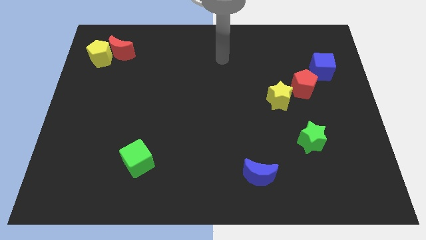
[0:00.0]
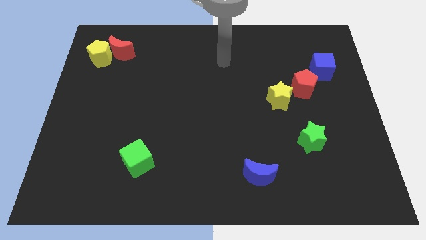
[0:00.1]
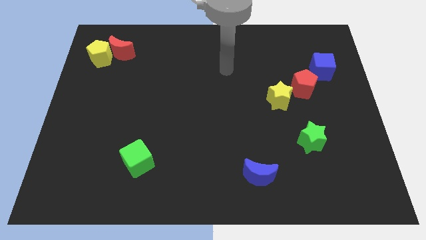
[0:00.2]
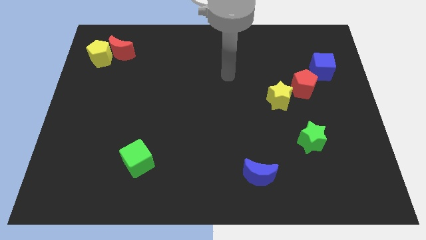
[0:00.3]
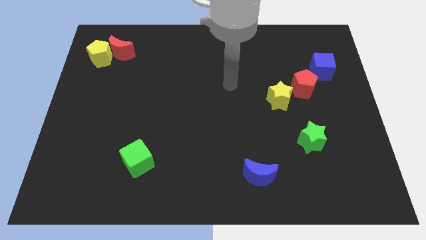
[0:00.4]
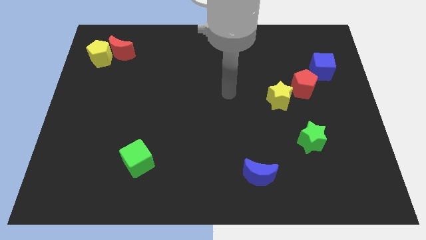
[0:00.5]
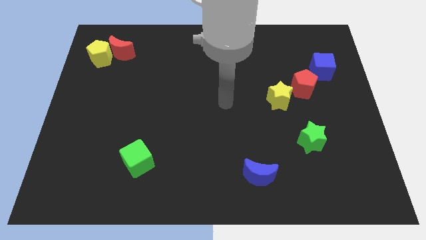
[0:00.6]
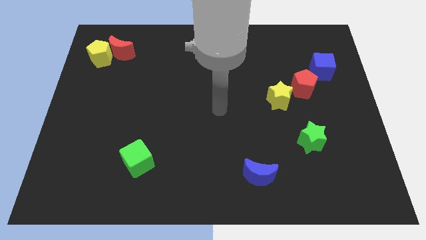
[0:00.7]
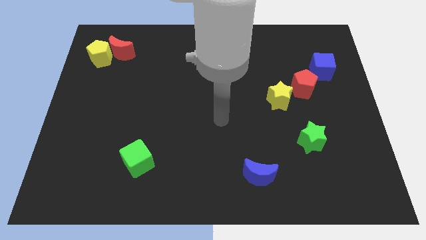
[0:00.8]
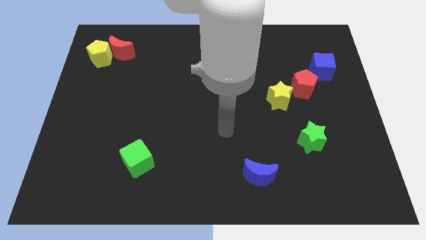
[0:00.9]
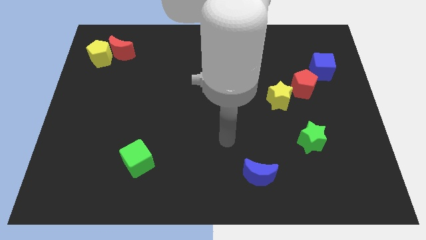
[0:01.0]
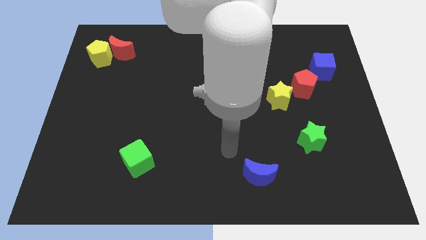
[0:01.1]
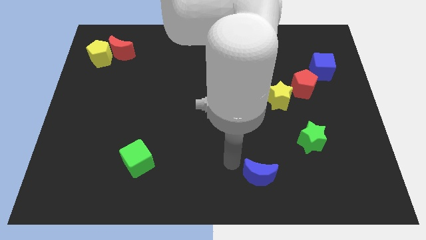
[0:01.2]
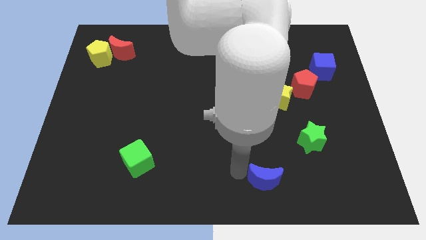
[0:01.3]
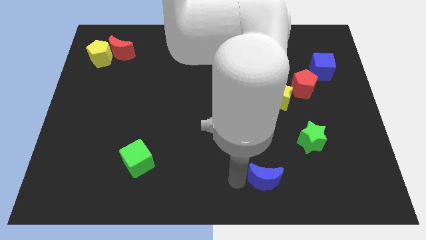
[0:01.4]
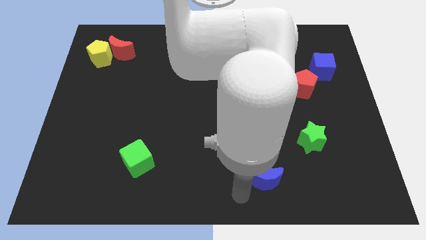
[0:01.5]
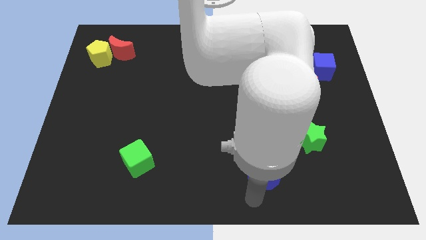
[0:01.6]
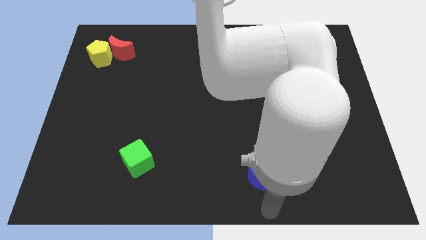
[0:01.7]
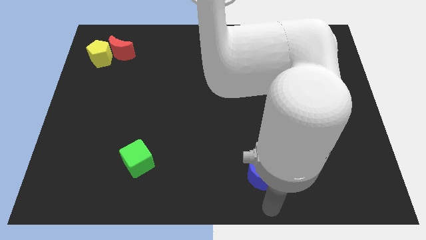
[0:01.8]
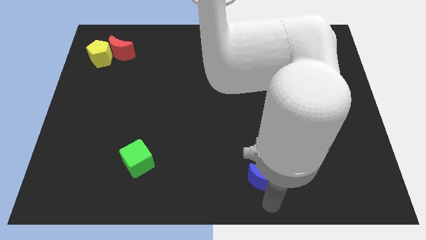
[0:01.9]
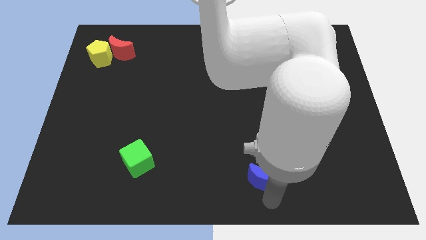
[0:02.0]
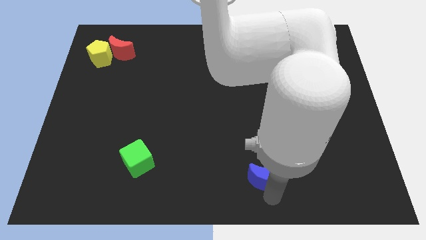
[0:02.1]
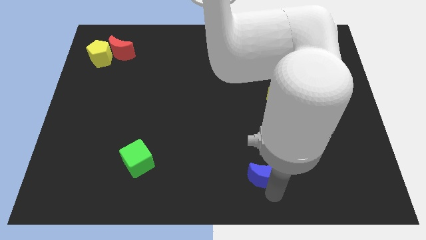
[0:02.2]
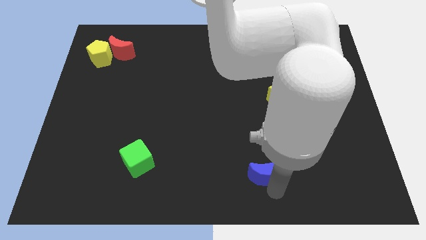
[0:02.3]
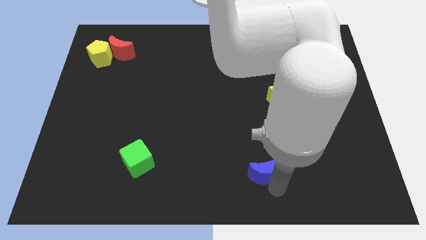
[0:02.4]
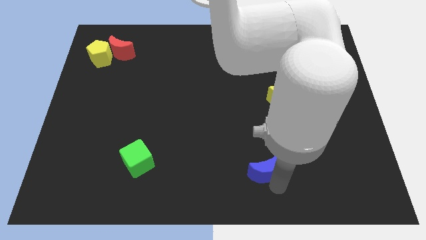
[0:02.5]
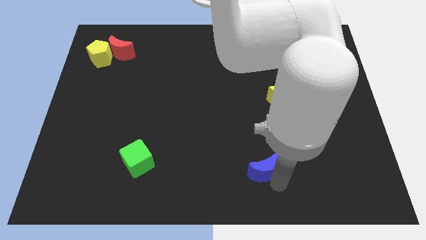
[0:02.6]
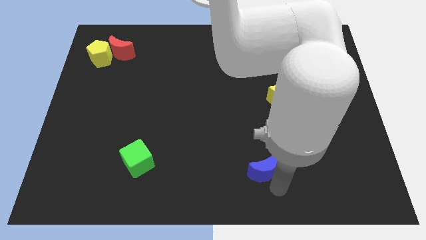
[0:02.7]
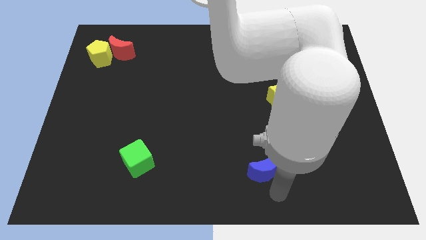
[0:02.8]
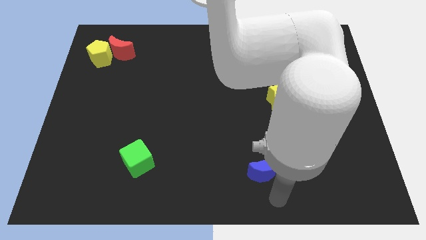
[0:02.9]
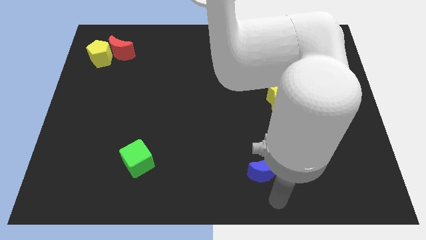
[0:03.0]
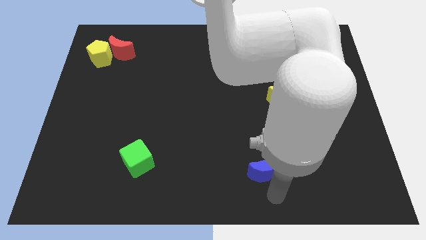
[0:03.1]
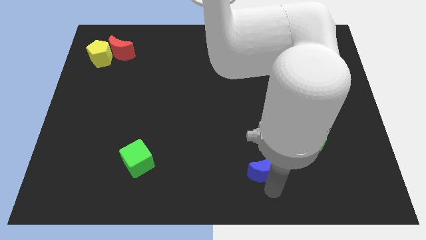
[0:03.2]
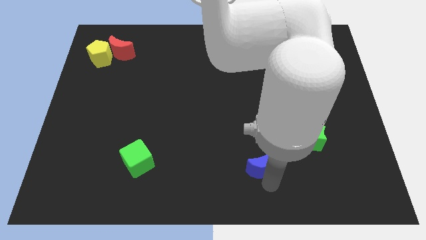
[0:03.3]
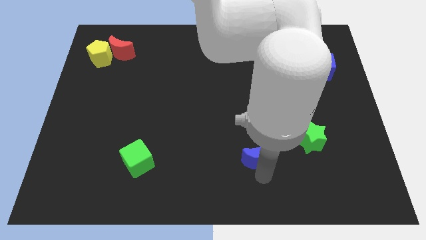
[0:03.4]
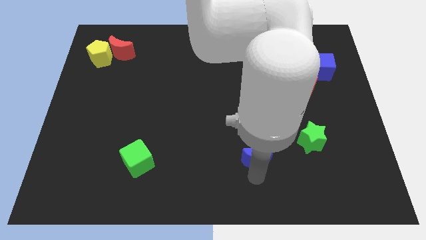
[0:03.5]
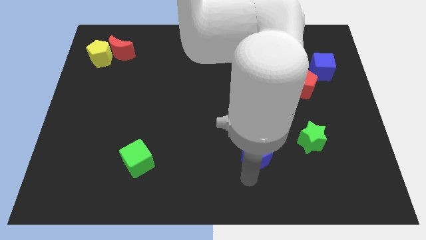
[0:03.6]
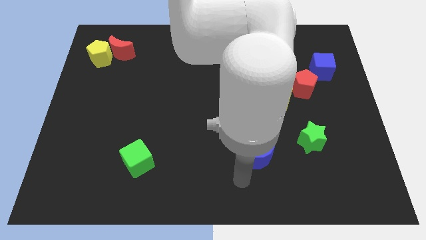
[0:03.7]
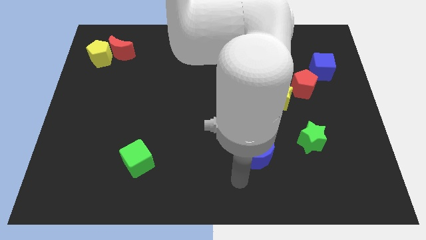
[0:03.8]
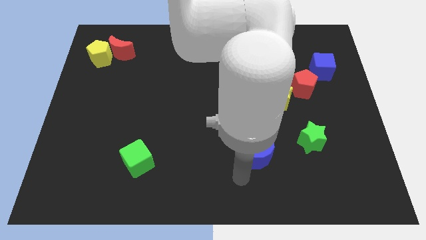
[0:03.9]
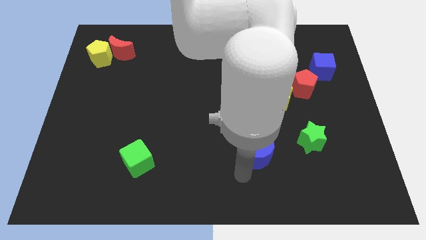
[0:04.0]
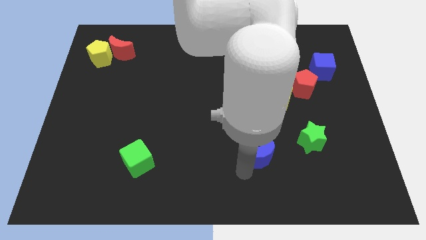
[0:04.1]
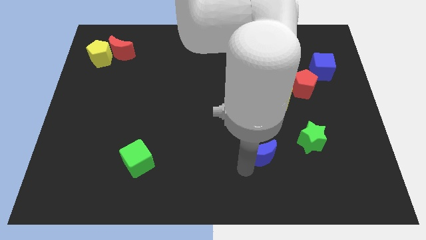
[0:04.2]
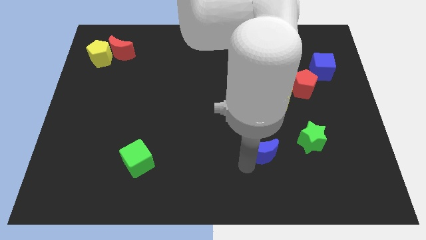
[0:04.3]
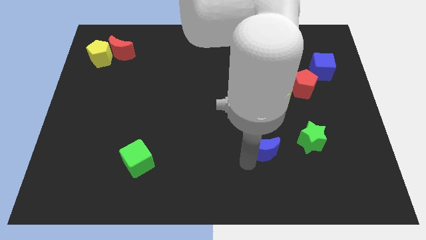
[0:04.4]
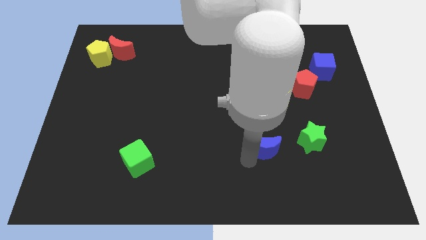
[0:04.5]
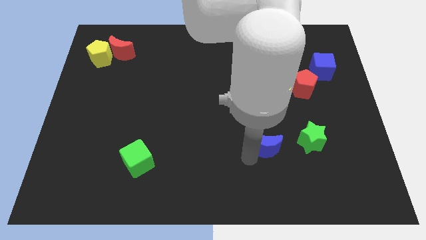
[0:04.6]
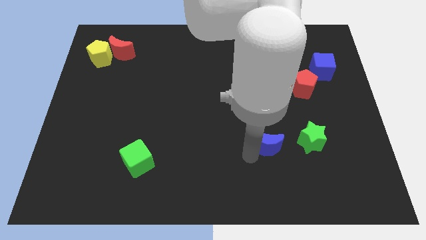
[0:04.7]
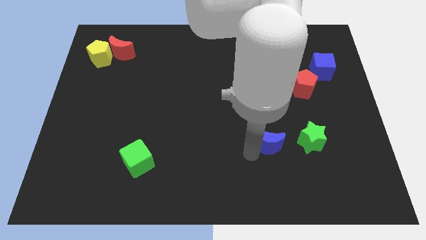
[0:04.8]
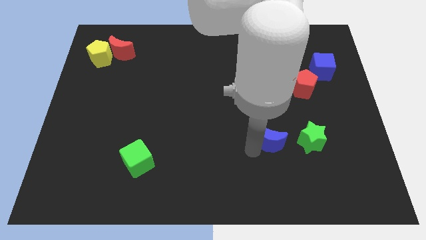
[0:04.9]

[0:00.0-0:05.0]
move the blue moon upwards and to the right a little bit

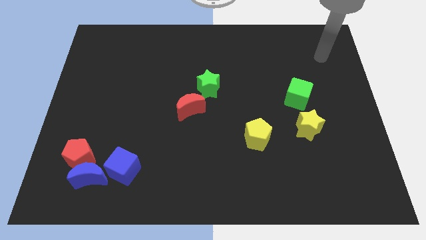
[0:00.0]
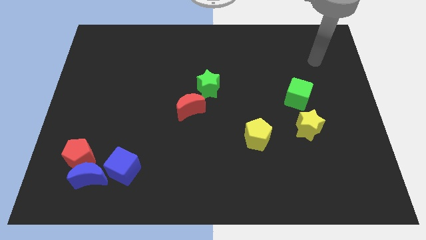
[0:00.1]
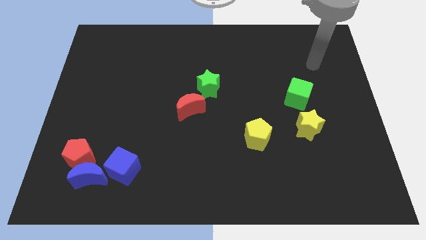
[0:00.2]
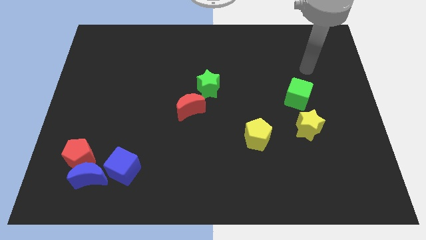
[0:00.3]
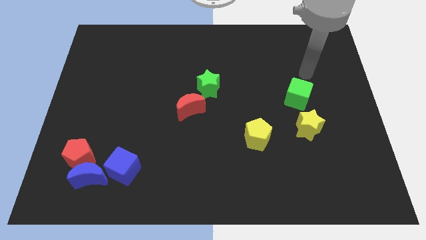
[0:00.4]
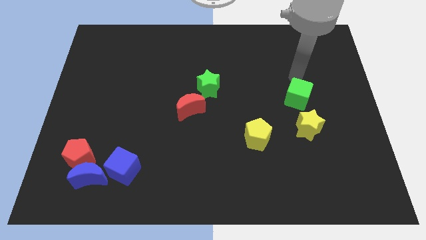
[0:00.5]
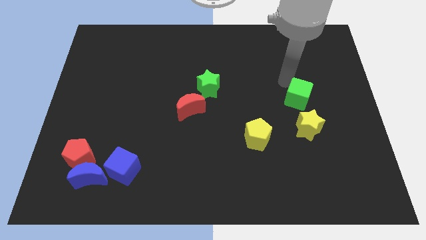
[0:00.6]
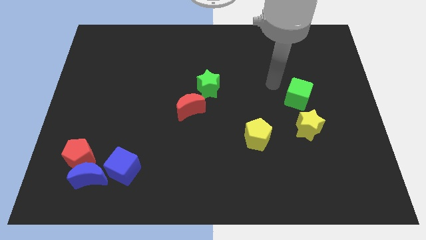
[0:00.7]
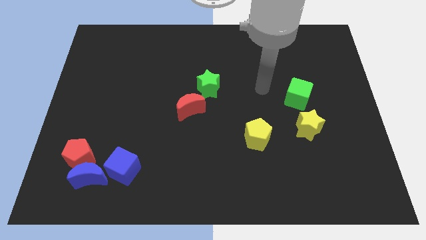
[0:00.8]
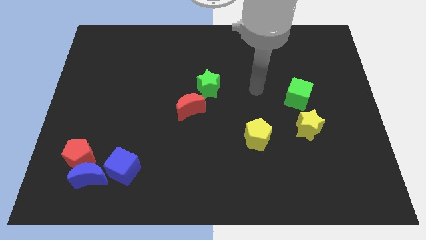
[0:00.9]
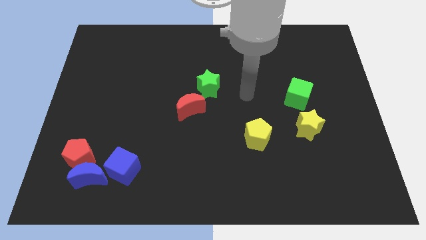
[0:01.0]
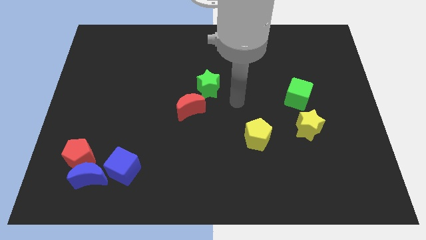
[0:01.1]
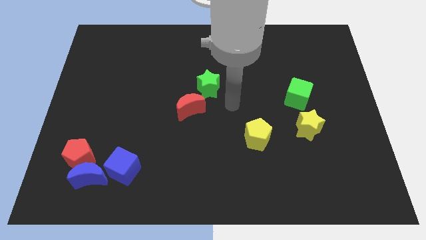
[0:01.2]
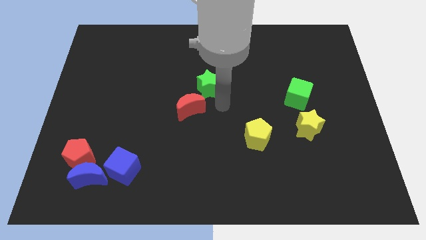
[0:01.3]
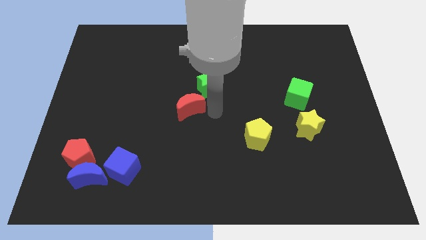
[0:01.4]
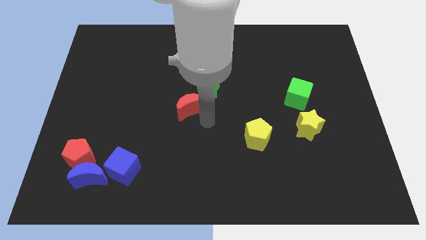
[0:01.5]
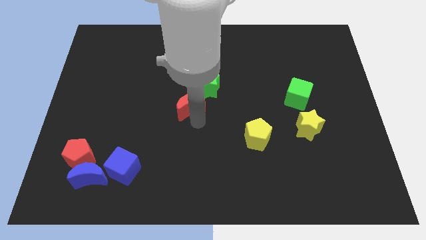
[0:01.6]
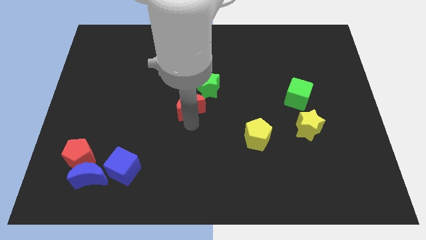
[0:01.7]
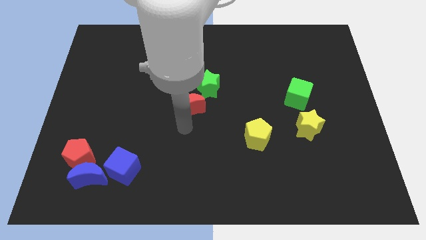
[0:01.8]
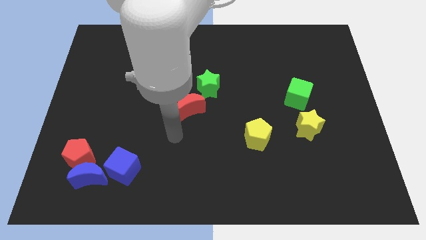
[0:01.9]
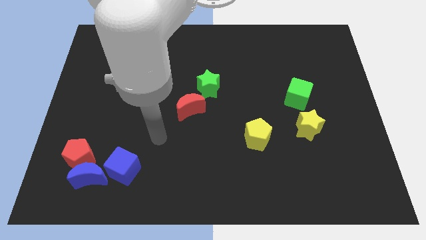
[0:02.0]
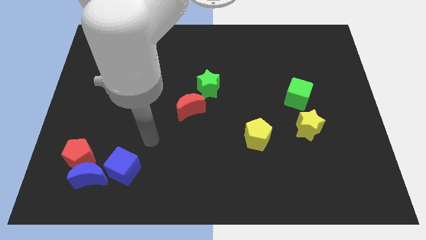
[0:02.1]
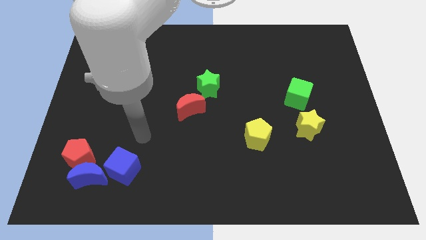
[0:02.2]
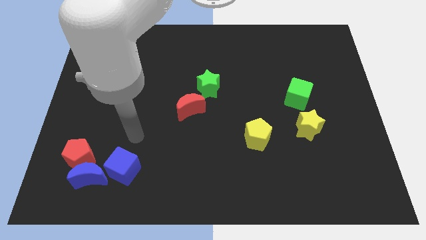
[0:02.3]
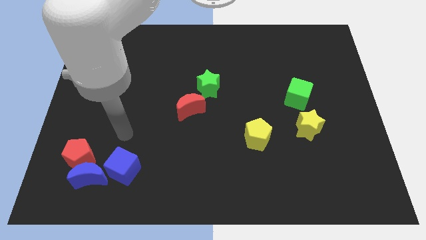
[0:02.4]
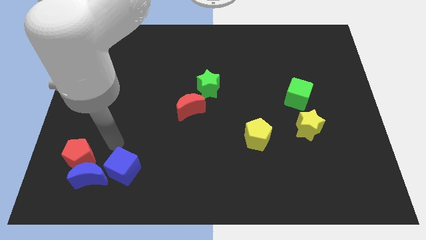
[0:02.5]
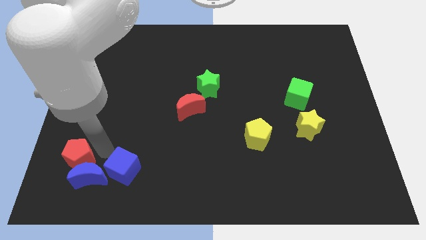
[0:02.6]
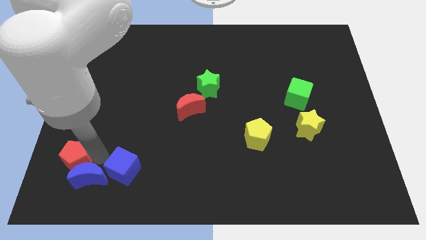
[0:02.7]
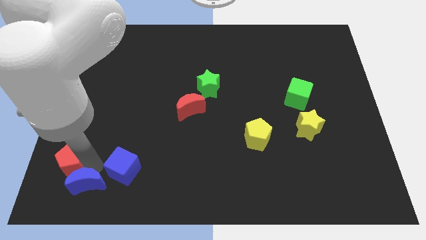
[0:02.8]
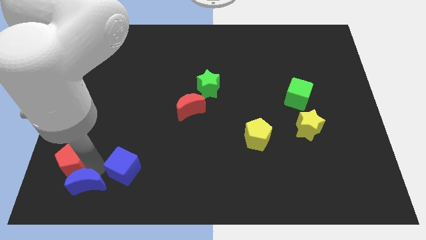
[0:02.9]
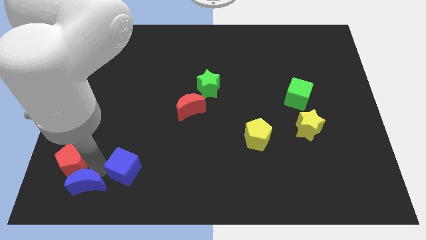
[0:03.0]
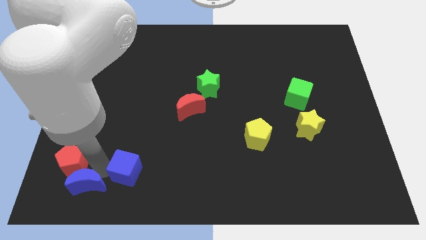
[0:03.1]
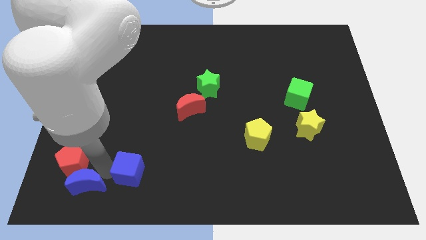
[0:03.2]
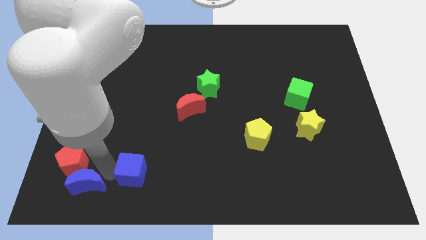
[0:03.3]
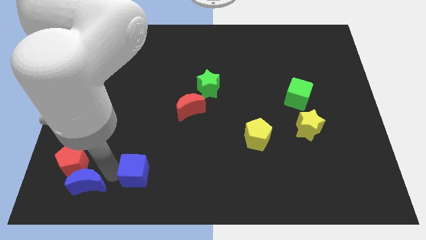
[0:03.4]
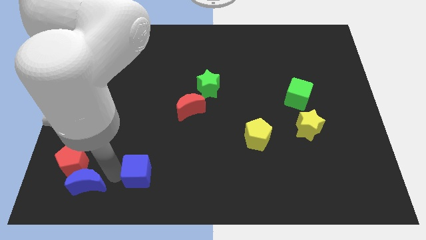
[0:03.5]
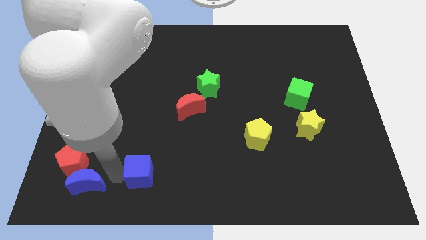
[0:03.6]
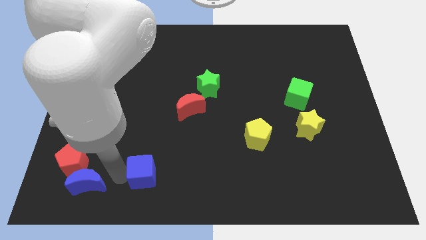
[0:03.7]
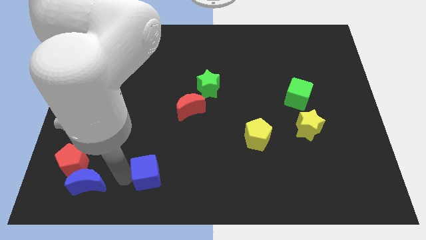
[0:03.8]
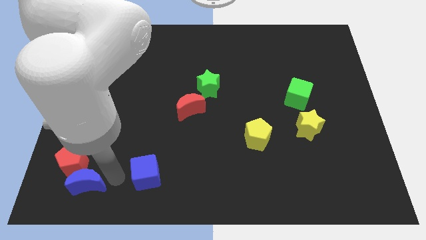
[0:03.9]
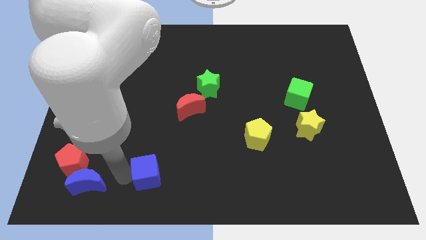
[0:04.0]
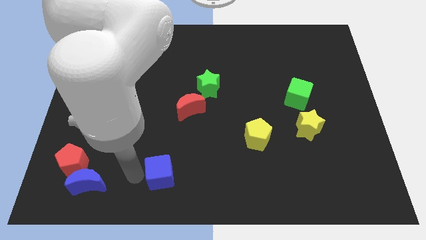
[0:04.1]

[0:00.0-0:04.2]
slightly slide the blue cube right
